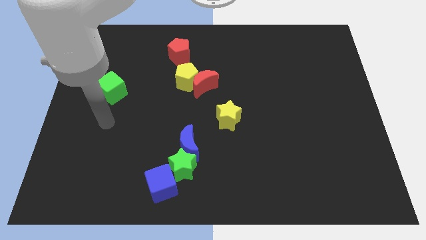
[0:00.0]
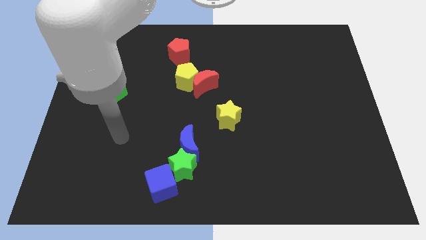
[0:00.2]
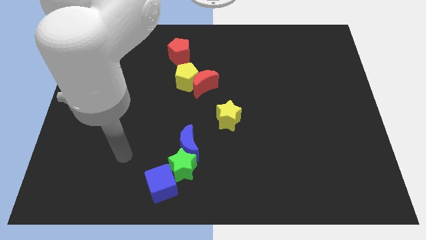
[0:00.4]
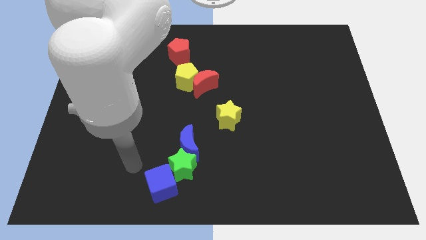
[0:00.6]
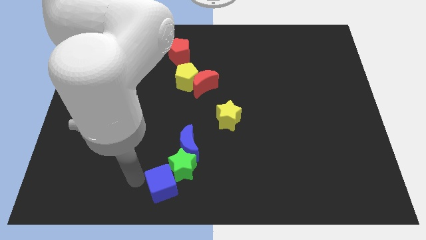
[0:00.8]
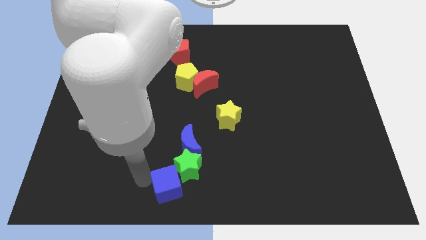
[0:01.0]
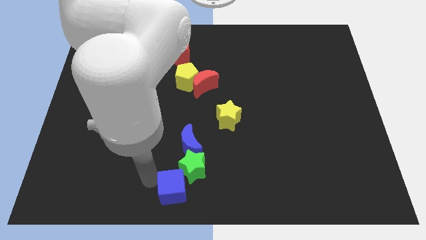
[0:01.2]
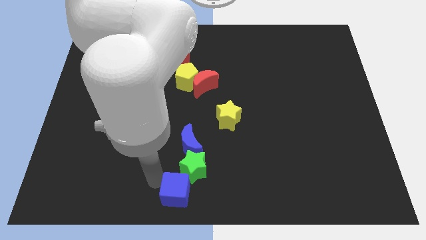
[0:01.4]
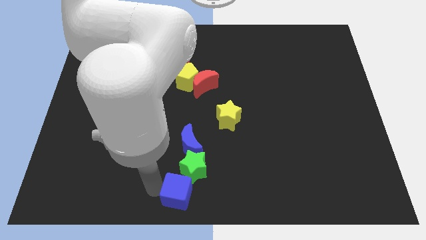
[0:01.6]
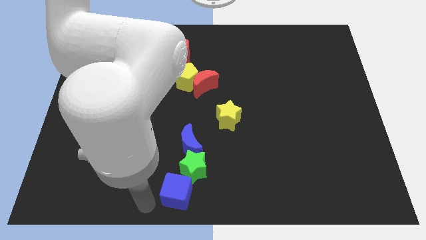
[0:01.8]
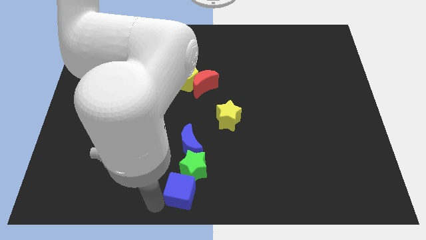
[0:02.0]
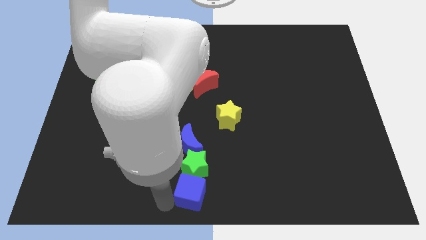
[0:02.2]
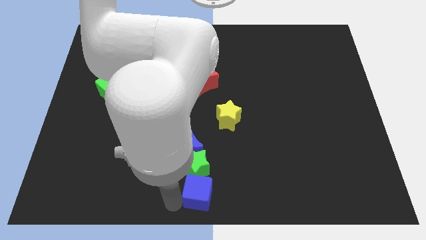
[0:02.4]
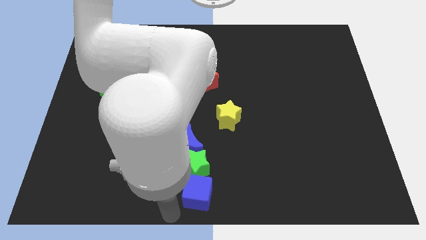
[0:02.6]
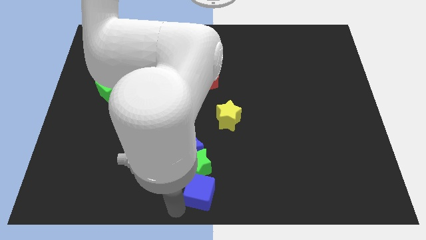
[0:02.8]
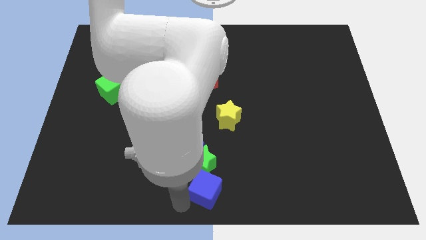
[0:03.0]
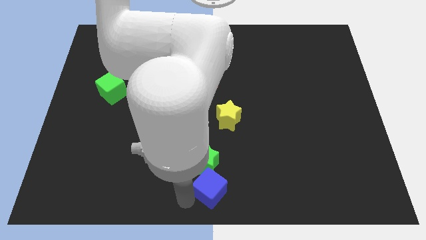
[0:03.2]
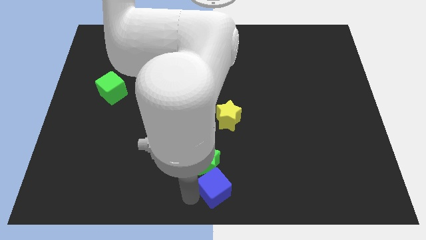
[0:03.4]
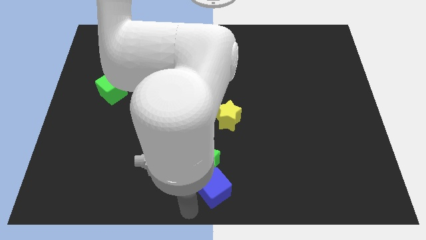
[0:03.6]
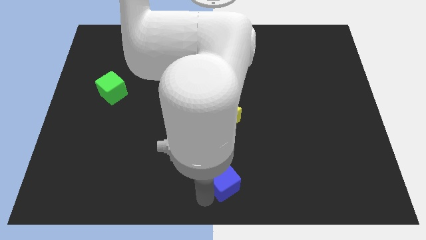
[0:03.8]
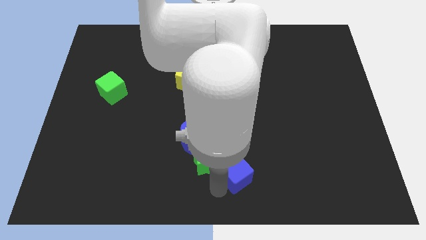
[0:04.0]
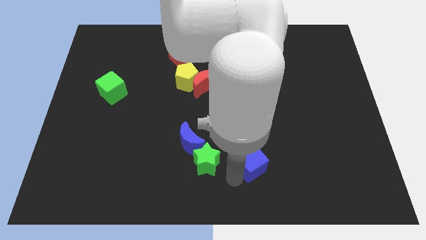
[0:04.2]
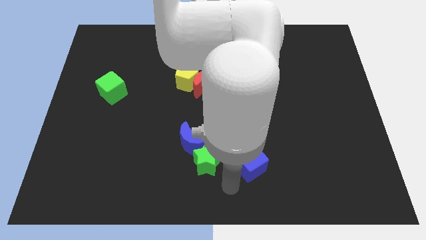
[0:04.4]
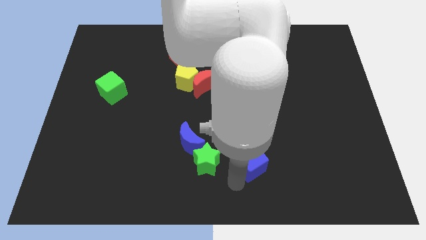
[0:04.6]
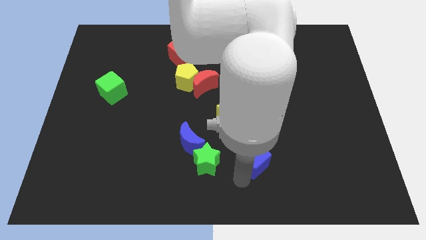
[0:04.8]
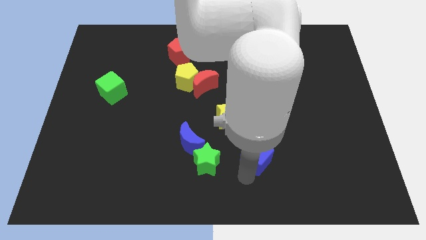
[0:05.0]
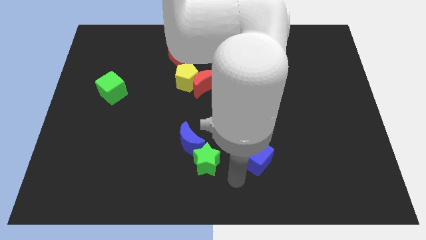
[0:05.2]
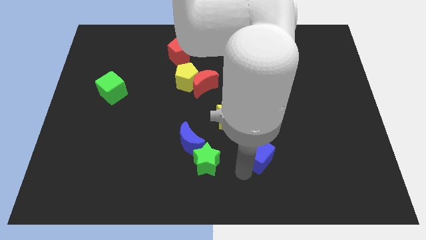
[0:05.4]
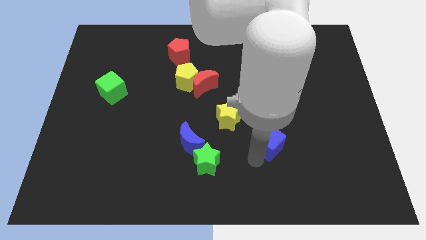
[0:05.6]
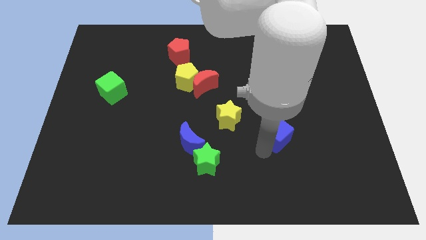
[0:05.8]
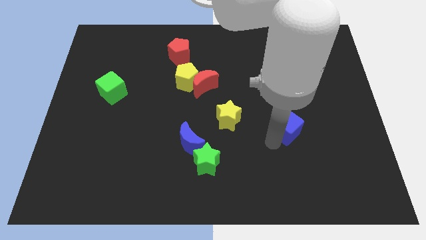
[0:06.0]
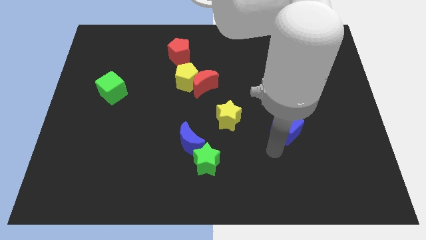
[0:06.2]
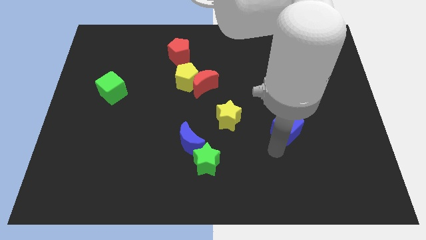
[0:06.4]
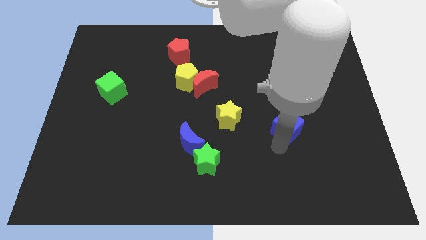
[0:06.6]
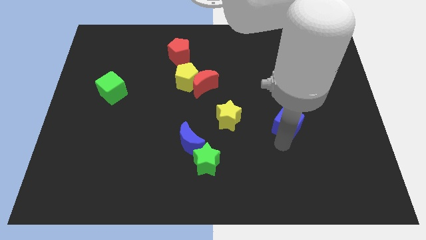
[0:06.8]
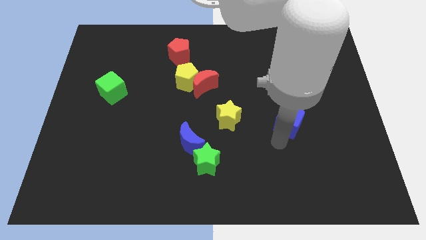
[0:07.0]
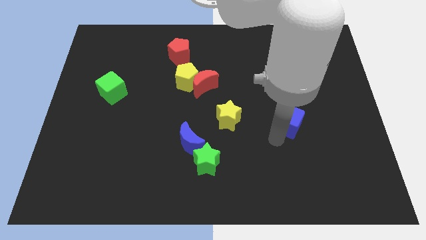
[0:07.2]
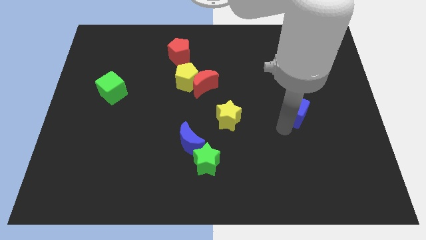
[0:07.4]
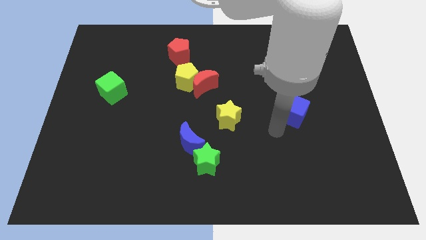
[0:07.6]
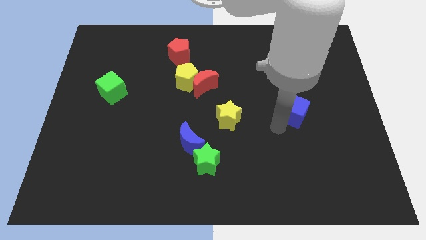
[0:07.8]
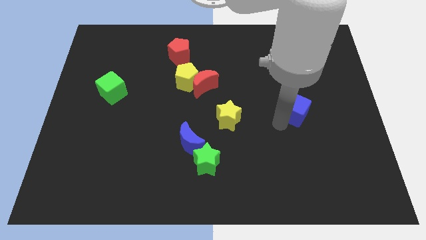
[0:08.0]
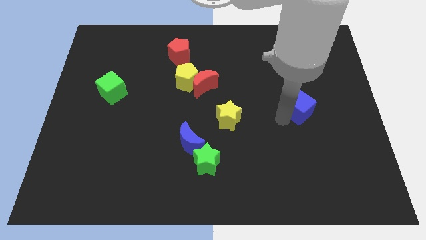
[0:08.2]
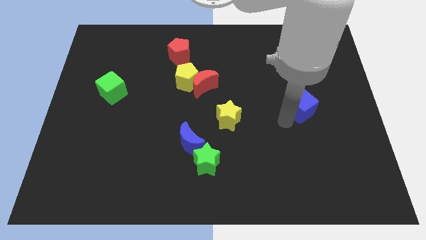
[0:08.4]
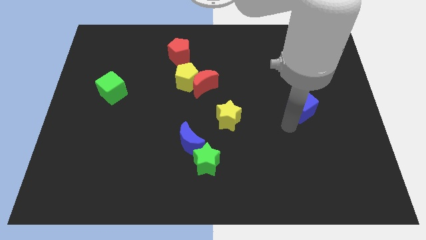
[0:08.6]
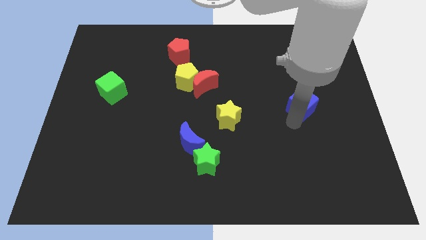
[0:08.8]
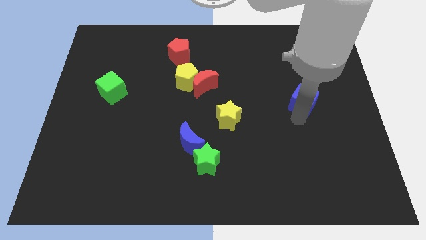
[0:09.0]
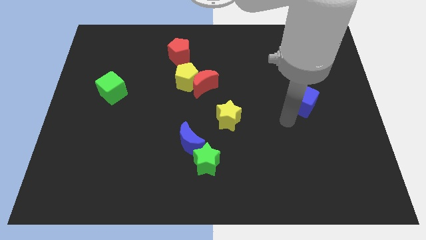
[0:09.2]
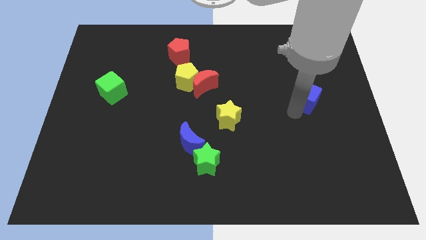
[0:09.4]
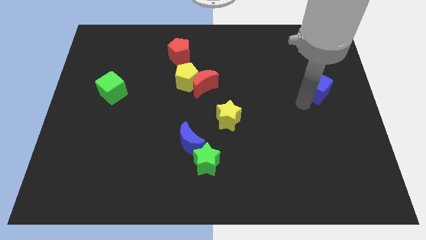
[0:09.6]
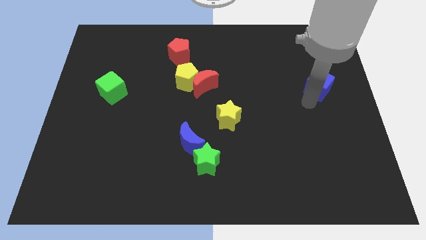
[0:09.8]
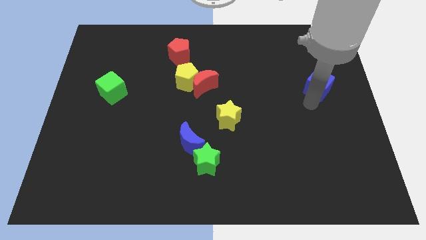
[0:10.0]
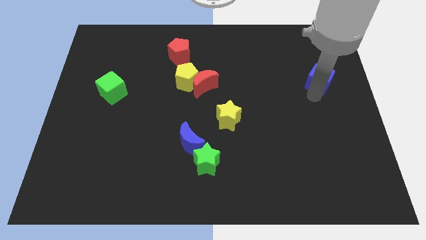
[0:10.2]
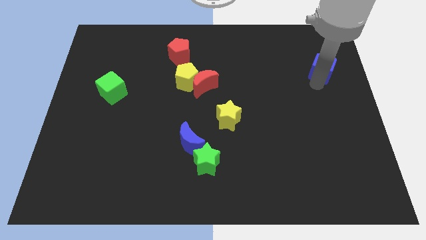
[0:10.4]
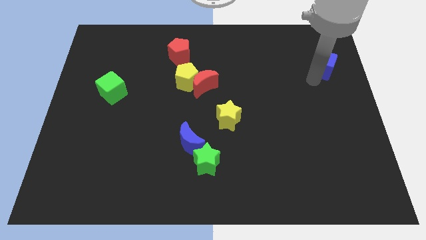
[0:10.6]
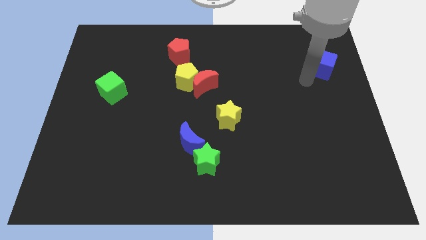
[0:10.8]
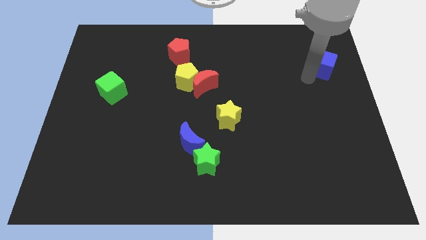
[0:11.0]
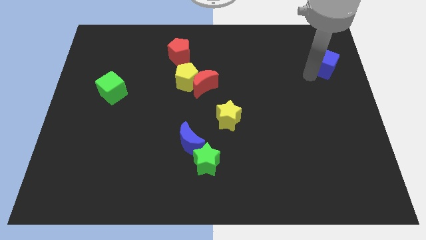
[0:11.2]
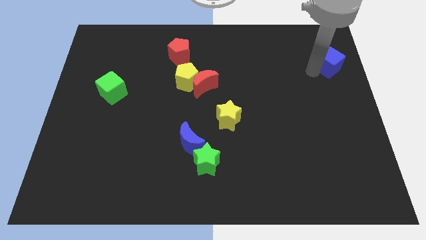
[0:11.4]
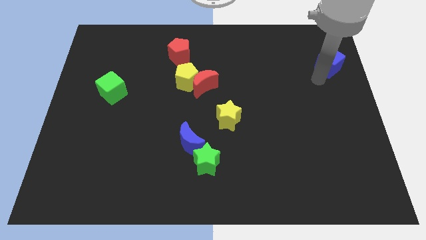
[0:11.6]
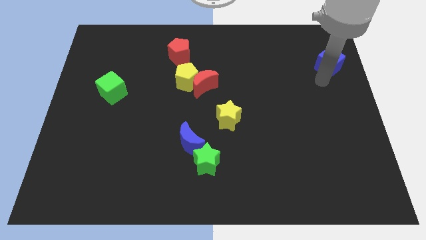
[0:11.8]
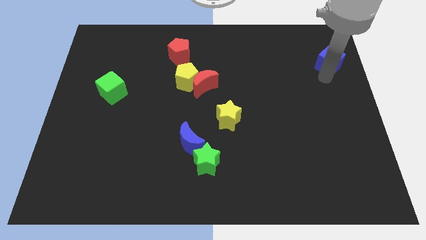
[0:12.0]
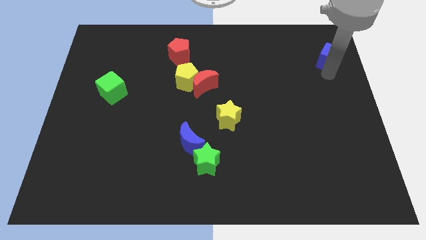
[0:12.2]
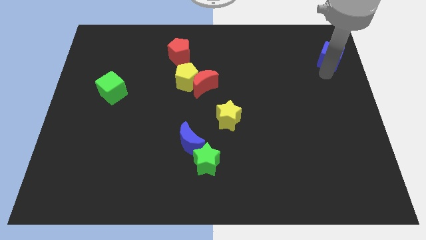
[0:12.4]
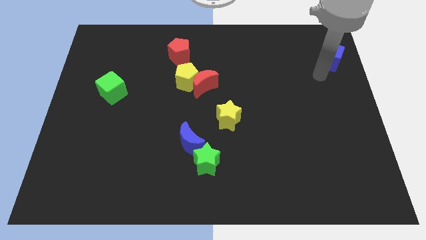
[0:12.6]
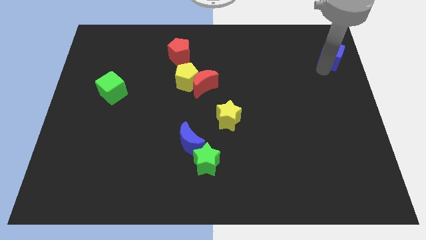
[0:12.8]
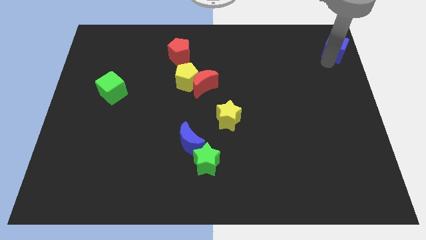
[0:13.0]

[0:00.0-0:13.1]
move the blue cube to the top right corner
